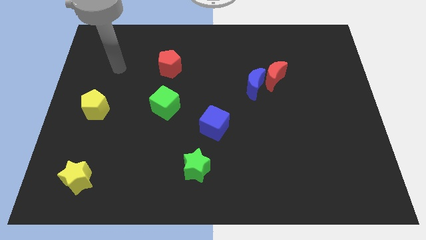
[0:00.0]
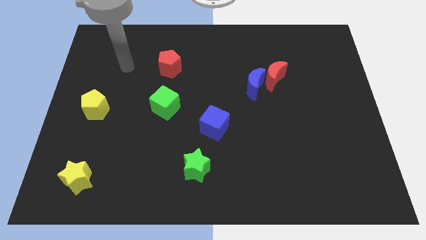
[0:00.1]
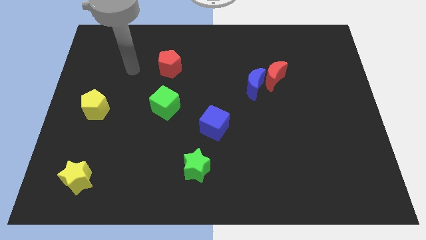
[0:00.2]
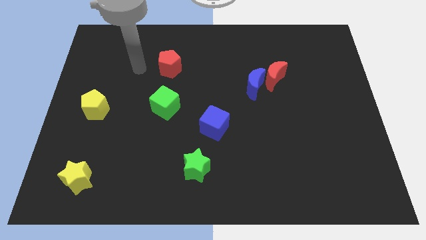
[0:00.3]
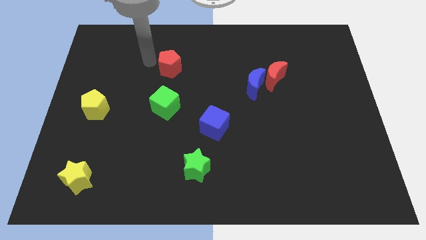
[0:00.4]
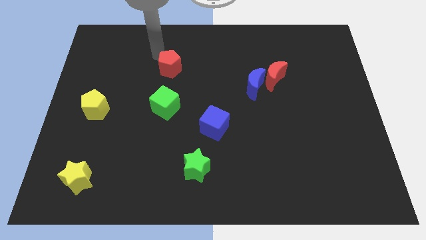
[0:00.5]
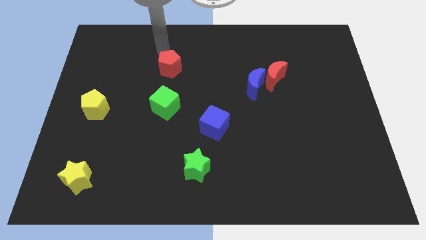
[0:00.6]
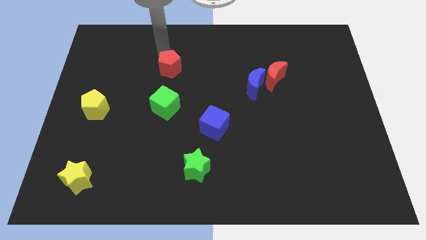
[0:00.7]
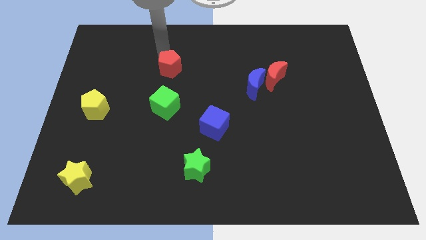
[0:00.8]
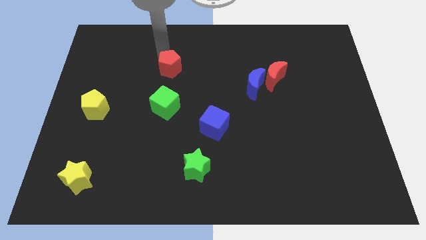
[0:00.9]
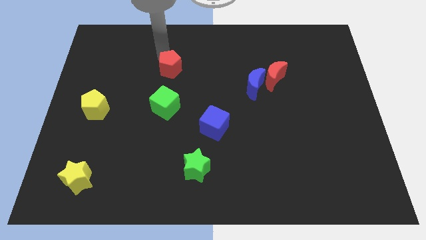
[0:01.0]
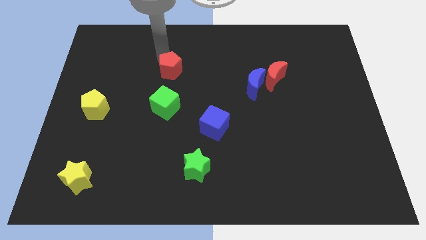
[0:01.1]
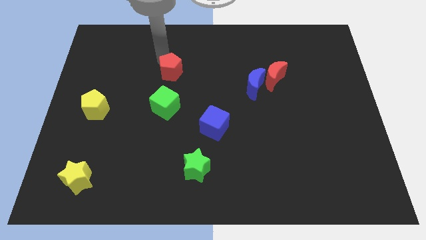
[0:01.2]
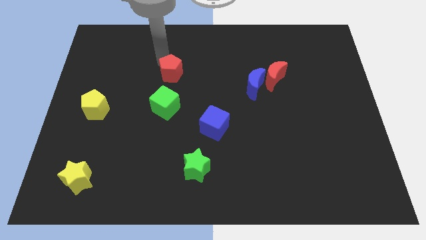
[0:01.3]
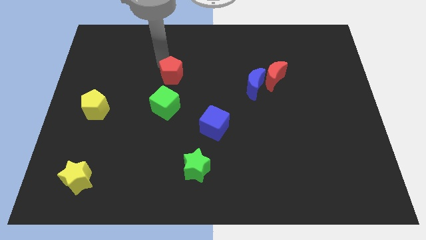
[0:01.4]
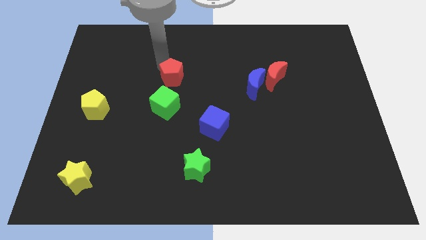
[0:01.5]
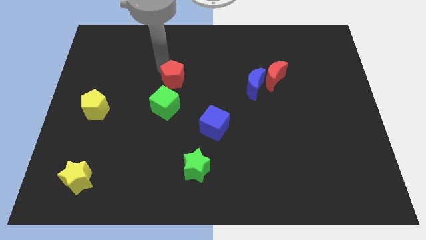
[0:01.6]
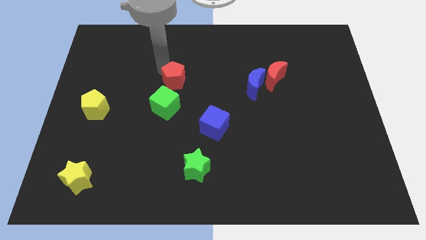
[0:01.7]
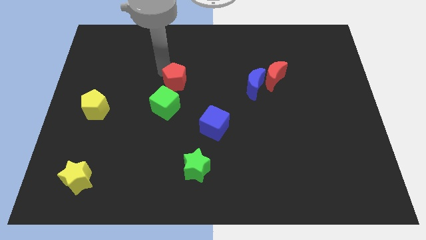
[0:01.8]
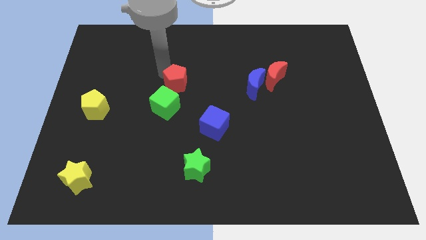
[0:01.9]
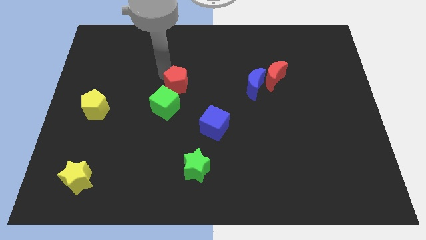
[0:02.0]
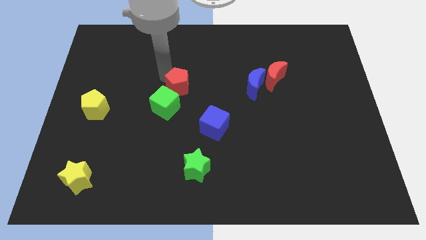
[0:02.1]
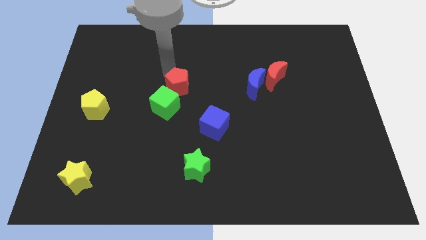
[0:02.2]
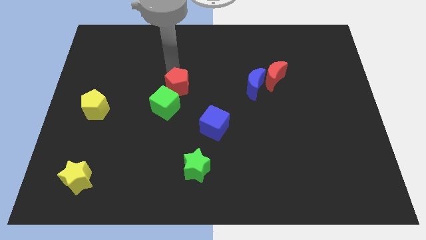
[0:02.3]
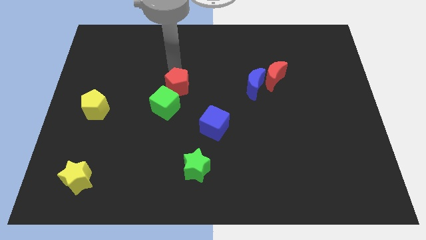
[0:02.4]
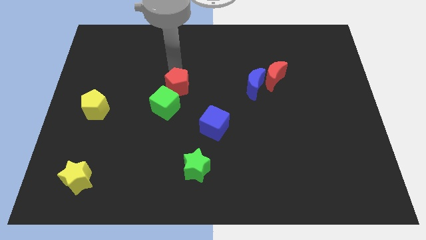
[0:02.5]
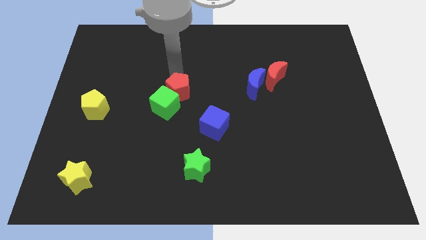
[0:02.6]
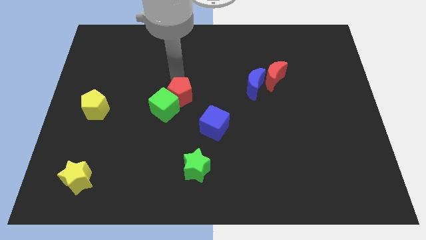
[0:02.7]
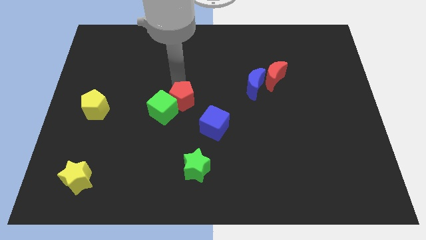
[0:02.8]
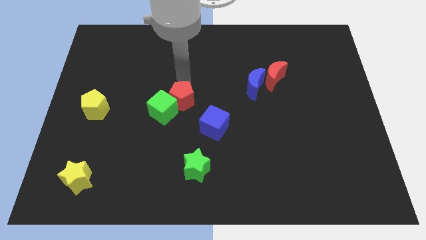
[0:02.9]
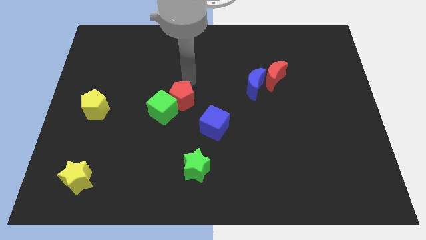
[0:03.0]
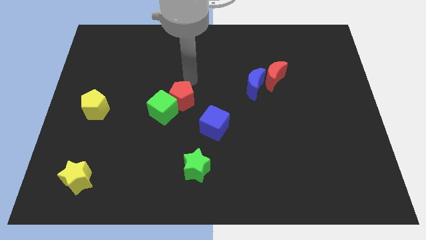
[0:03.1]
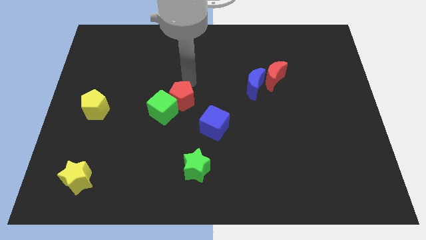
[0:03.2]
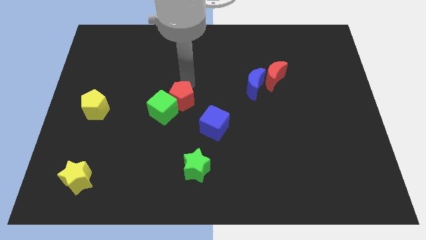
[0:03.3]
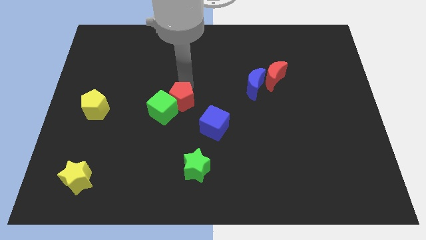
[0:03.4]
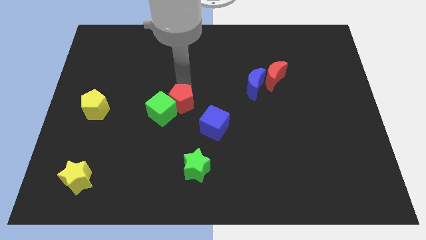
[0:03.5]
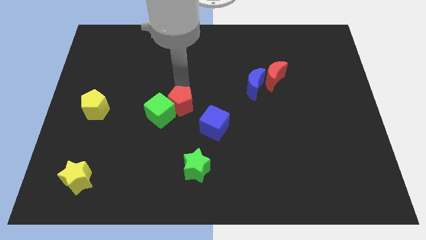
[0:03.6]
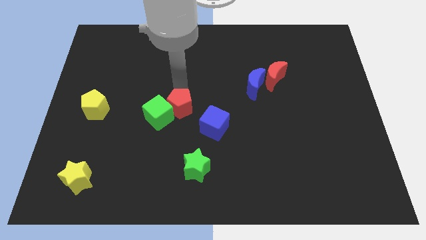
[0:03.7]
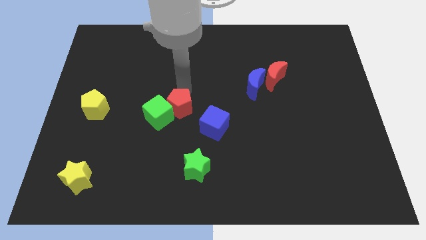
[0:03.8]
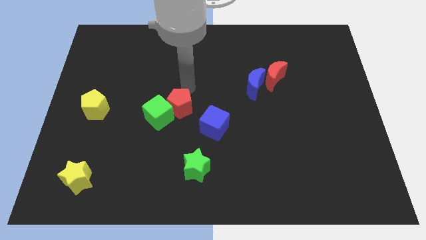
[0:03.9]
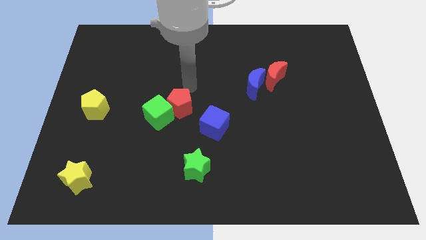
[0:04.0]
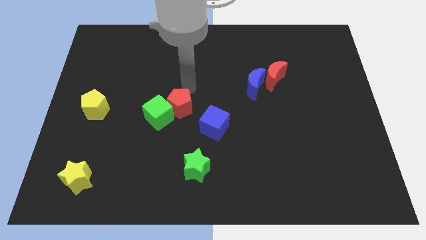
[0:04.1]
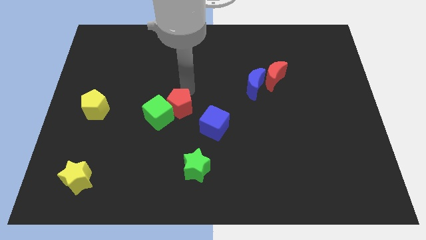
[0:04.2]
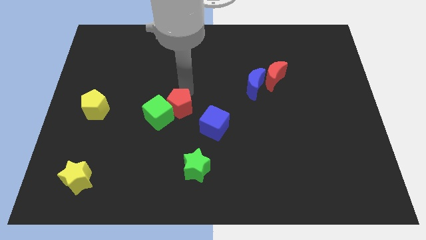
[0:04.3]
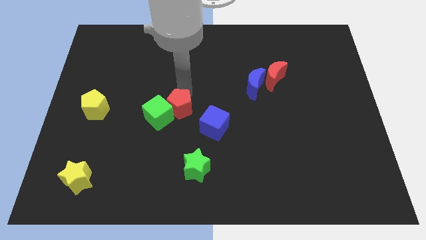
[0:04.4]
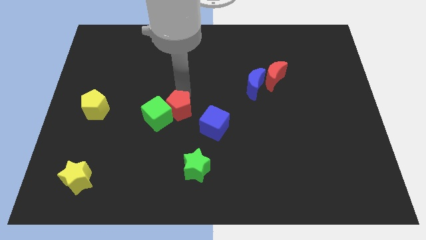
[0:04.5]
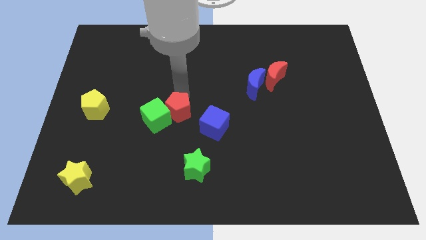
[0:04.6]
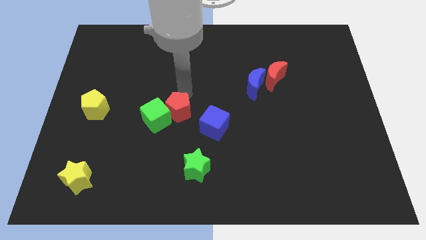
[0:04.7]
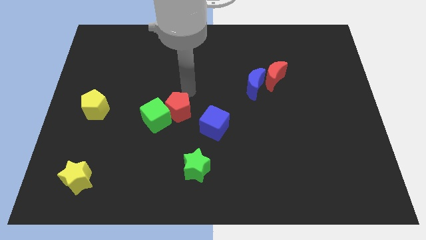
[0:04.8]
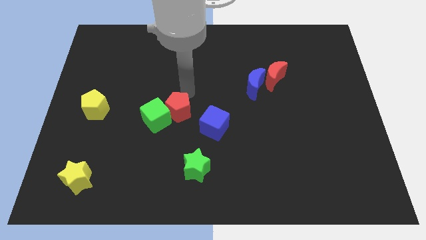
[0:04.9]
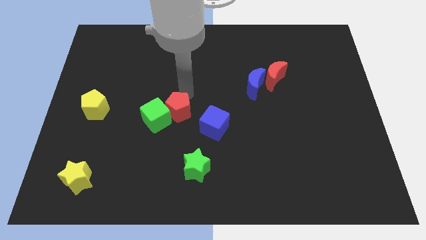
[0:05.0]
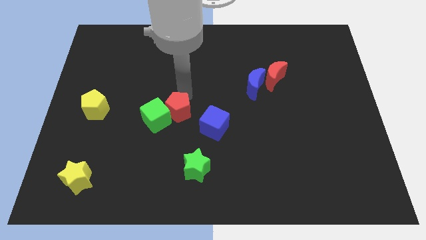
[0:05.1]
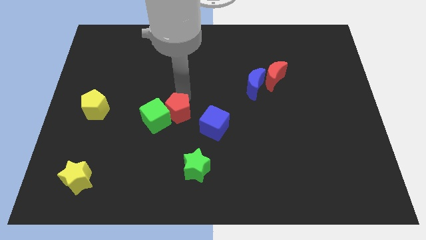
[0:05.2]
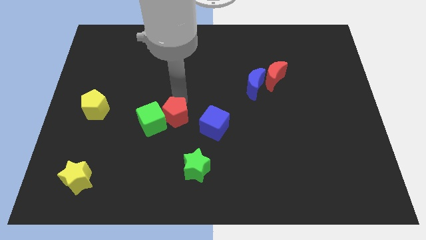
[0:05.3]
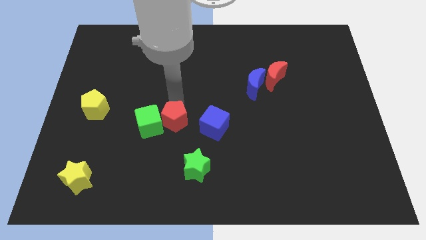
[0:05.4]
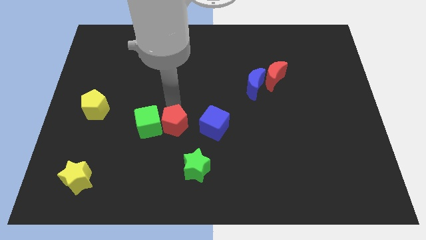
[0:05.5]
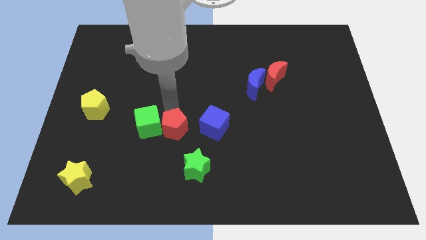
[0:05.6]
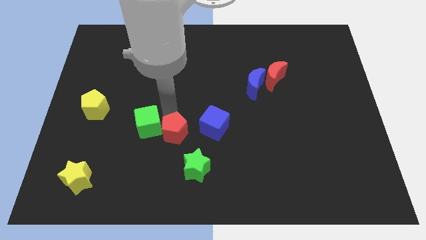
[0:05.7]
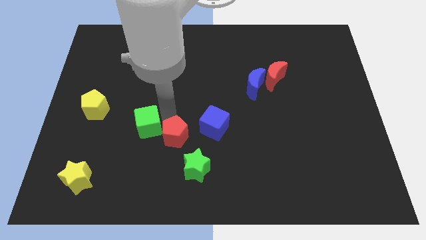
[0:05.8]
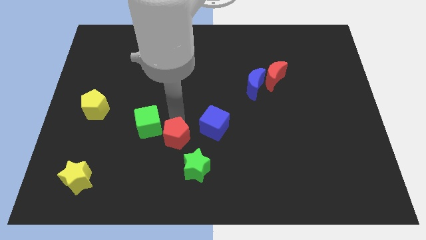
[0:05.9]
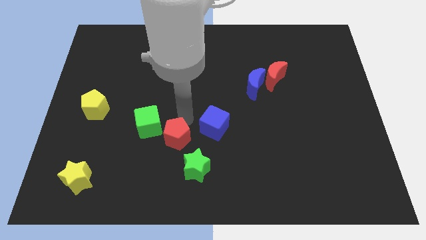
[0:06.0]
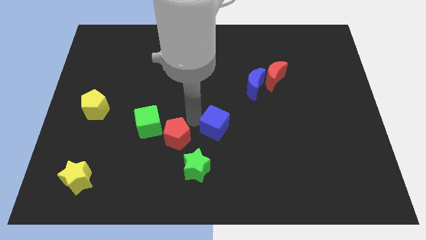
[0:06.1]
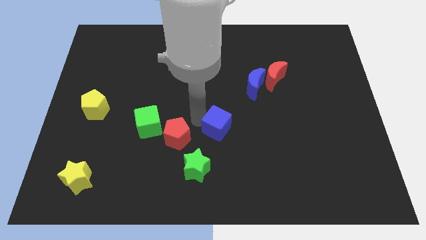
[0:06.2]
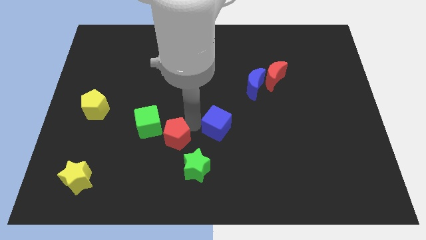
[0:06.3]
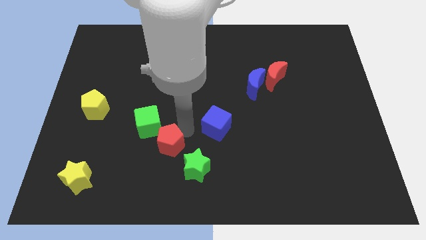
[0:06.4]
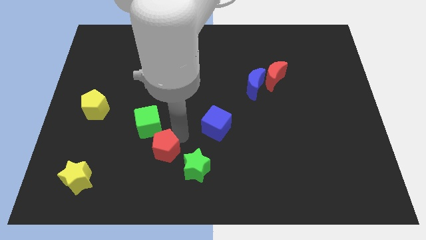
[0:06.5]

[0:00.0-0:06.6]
slide the red pentagon below the green cube
